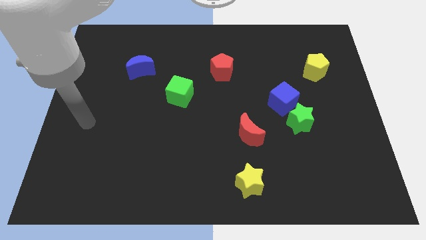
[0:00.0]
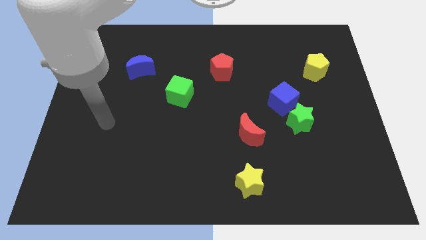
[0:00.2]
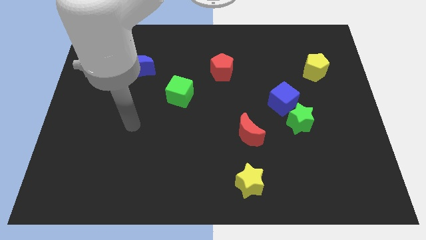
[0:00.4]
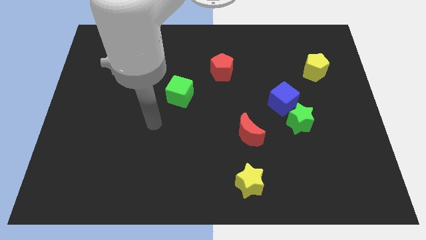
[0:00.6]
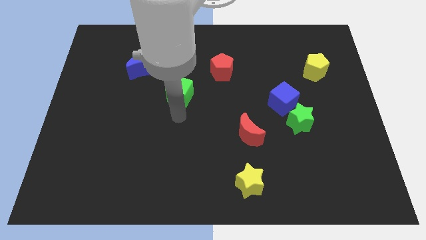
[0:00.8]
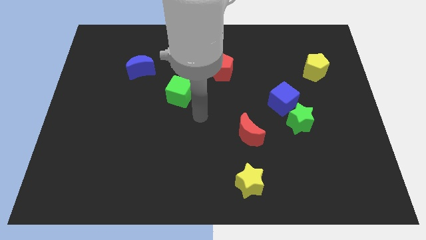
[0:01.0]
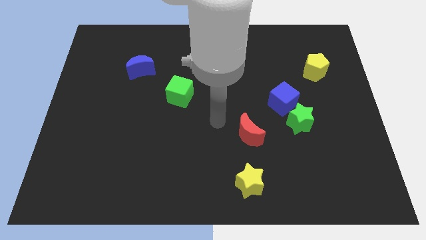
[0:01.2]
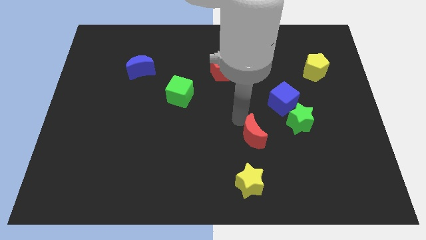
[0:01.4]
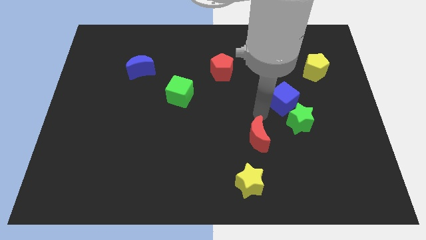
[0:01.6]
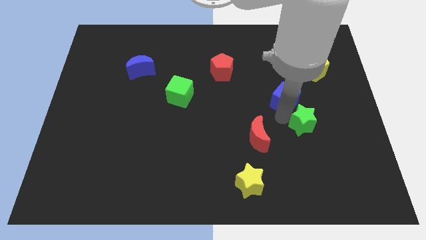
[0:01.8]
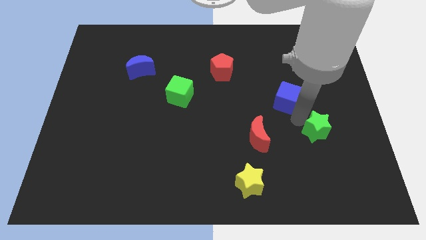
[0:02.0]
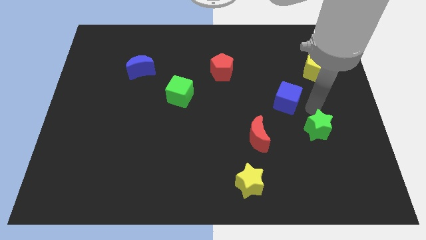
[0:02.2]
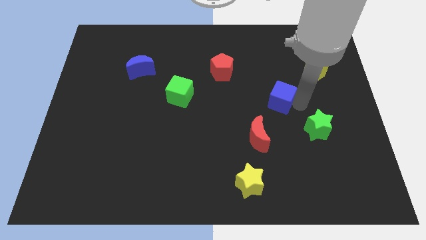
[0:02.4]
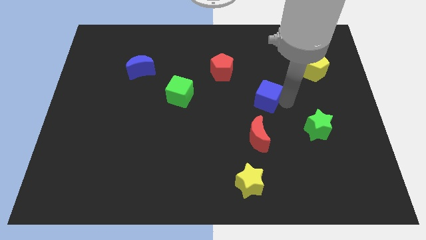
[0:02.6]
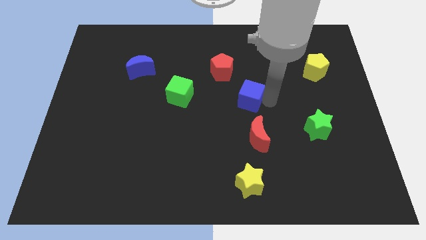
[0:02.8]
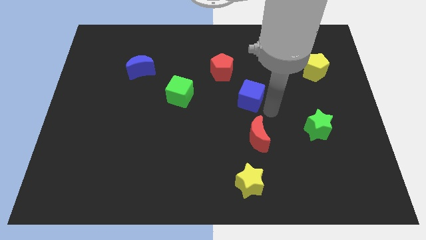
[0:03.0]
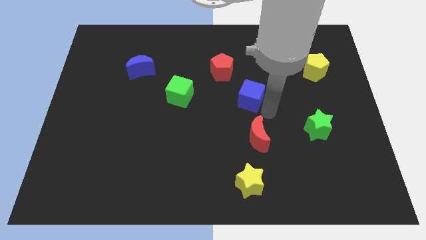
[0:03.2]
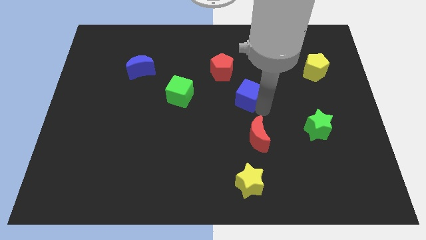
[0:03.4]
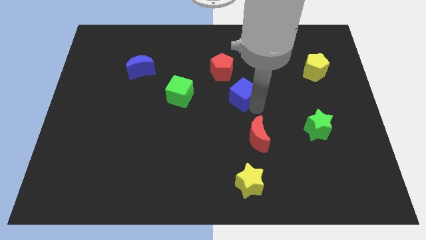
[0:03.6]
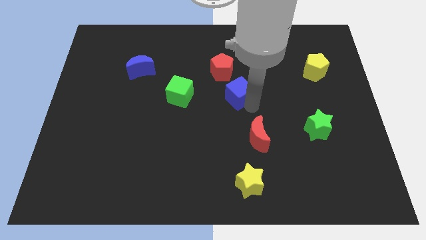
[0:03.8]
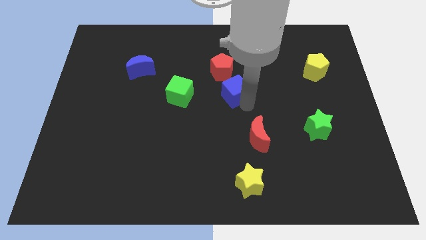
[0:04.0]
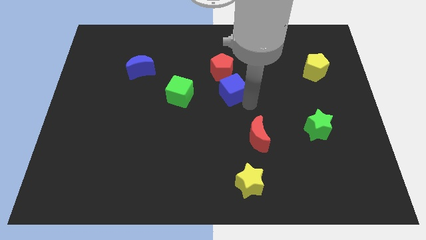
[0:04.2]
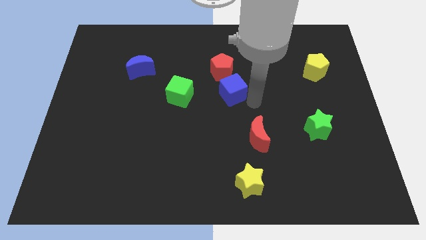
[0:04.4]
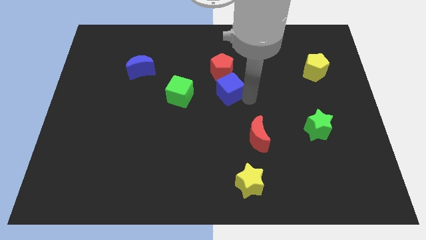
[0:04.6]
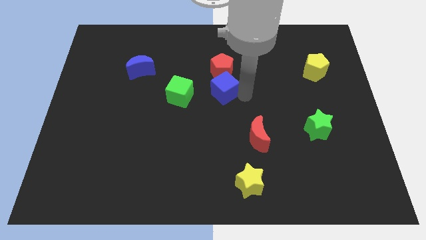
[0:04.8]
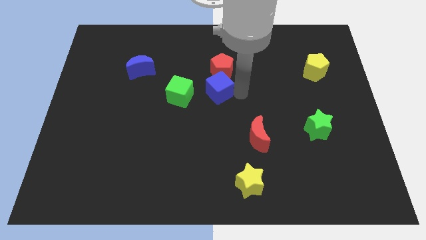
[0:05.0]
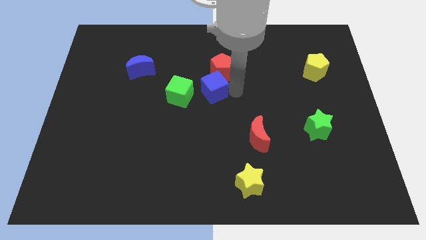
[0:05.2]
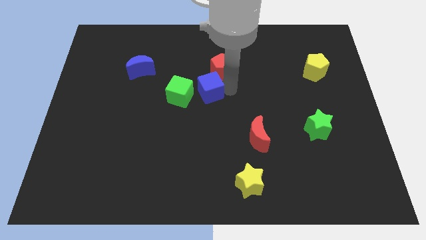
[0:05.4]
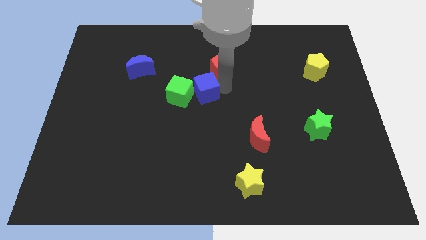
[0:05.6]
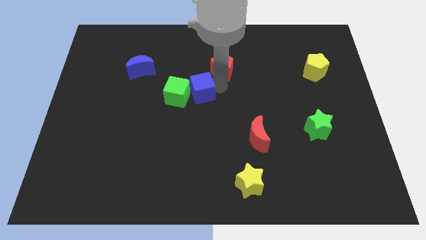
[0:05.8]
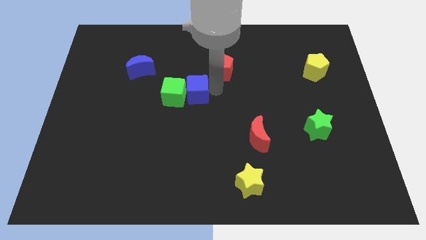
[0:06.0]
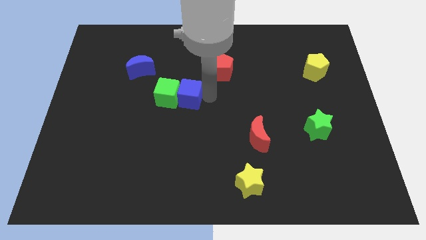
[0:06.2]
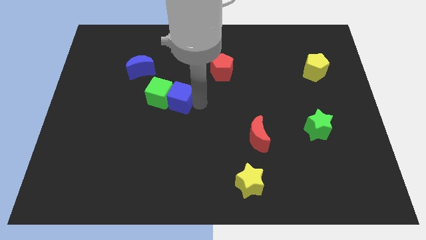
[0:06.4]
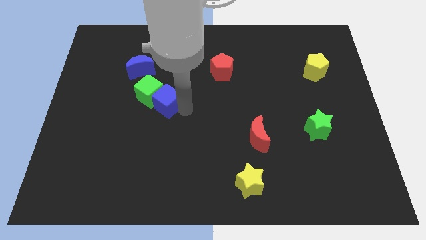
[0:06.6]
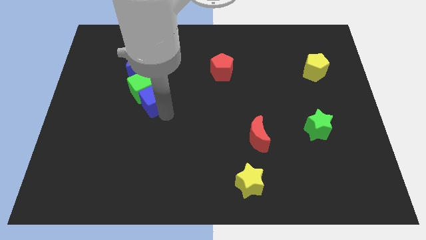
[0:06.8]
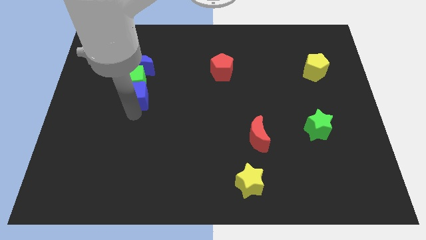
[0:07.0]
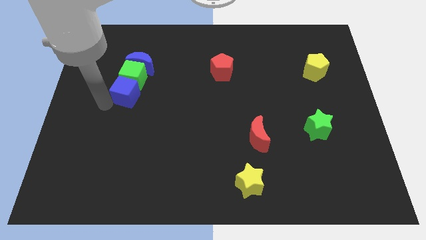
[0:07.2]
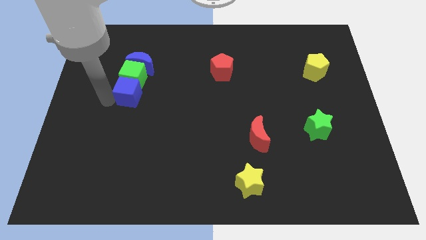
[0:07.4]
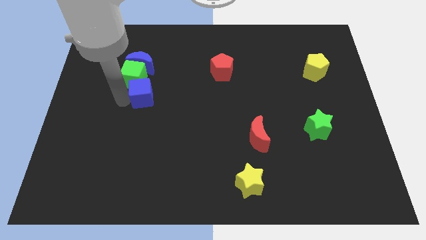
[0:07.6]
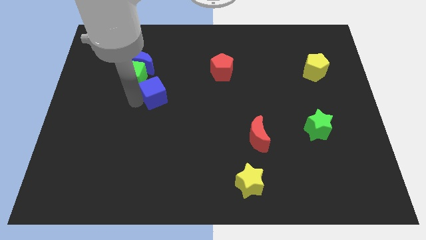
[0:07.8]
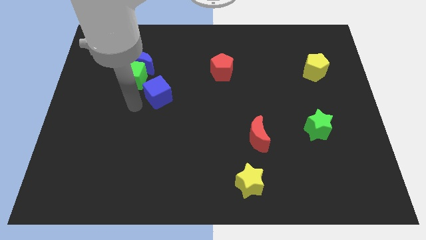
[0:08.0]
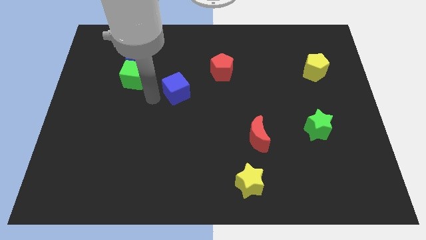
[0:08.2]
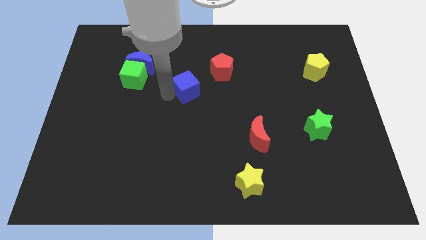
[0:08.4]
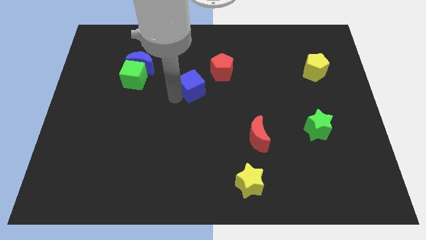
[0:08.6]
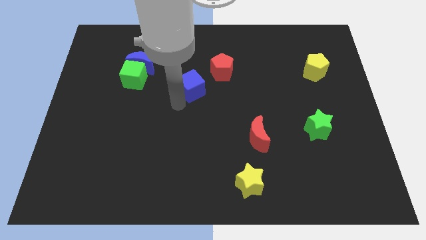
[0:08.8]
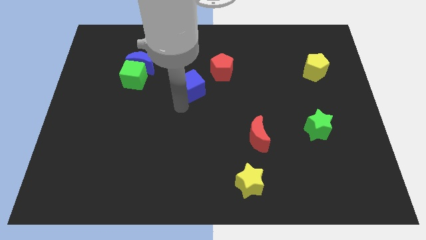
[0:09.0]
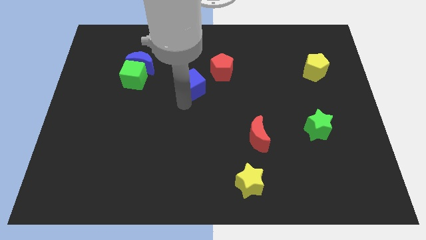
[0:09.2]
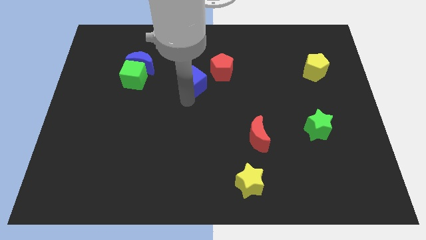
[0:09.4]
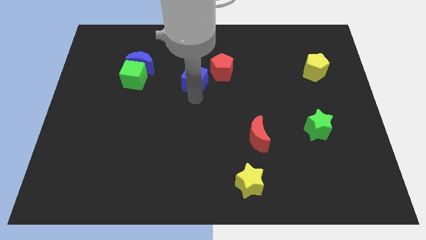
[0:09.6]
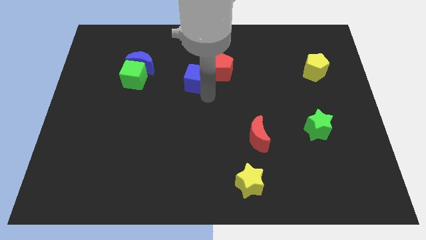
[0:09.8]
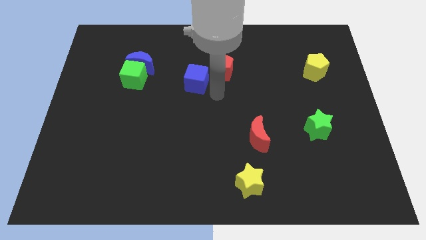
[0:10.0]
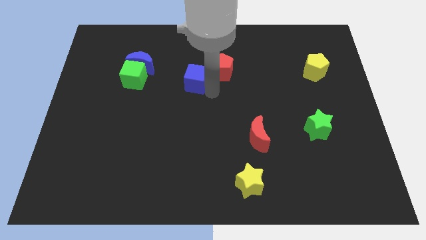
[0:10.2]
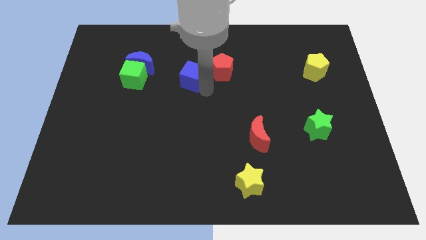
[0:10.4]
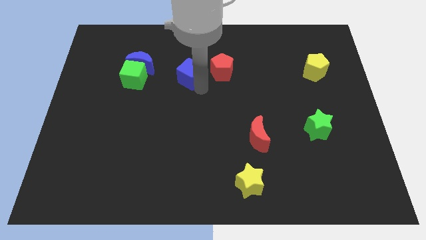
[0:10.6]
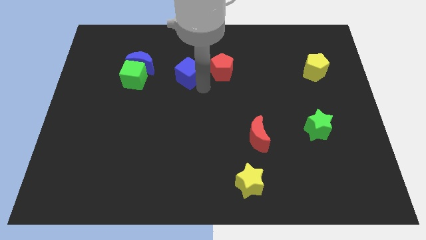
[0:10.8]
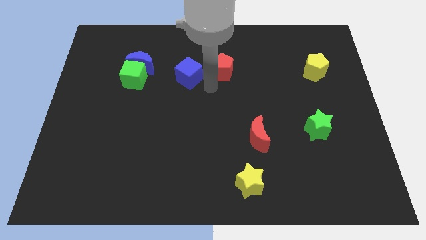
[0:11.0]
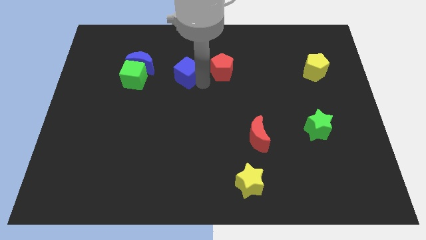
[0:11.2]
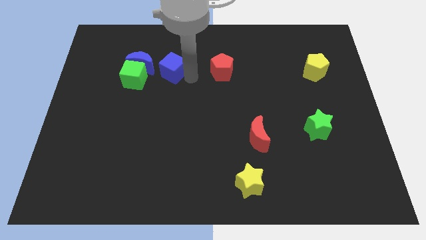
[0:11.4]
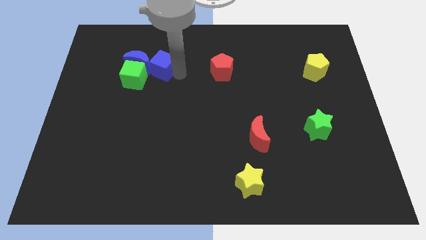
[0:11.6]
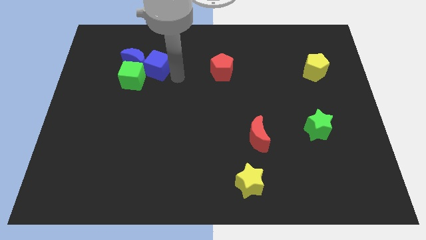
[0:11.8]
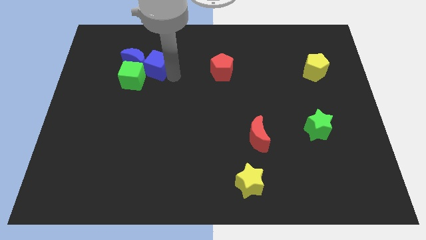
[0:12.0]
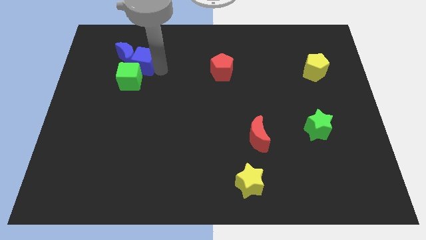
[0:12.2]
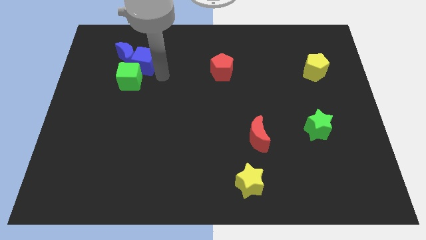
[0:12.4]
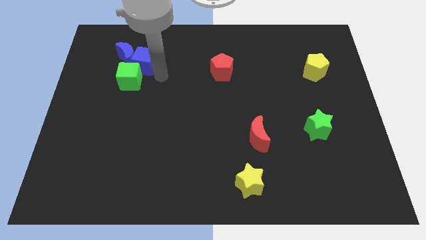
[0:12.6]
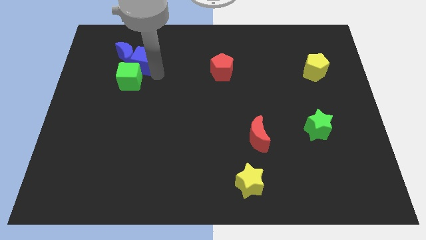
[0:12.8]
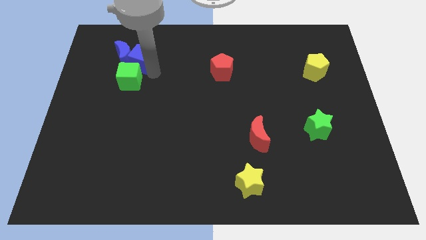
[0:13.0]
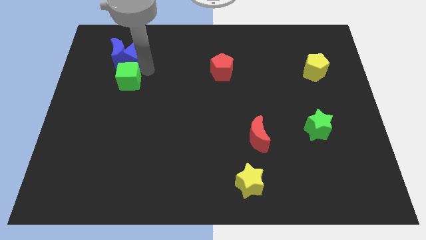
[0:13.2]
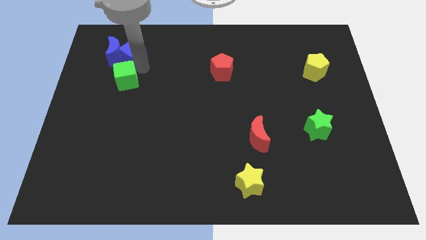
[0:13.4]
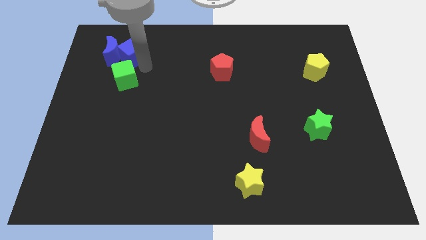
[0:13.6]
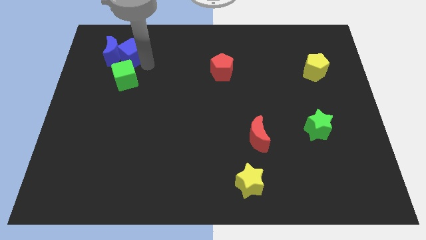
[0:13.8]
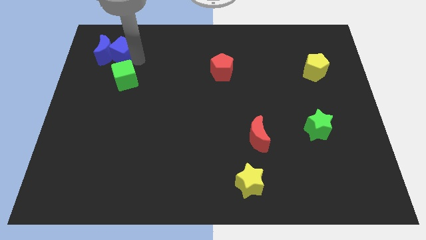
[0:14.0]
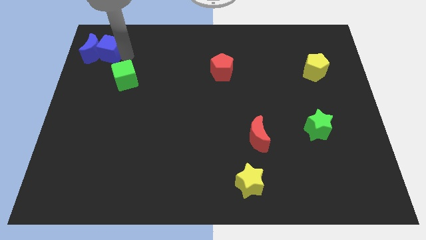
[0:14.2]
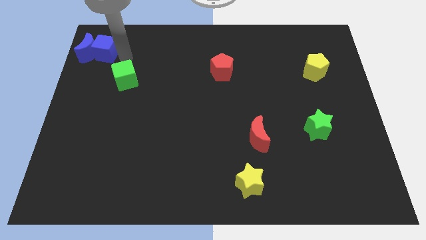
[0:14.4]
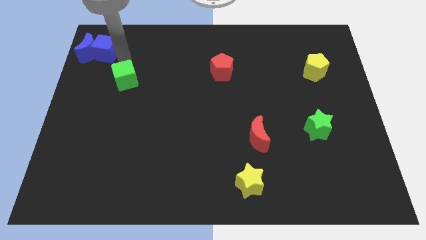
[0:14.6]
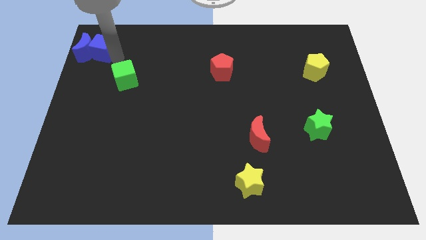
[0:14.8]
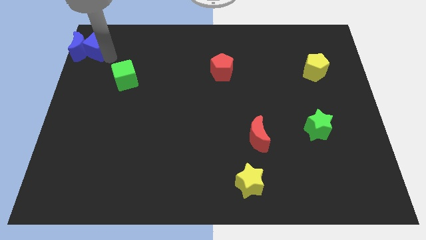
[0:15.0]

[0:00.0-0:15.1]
move the blue cube to the top left corner

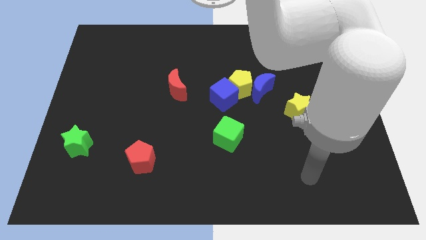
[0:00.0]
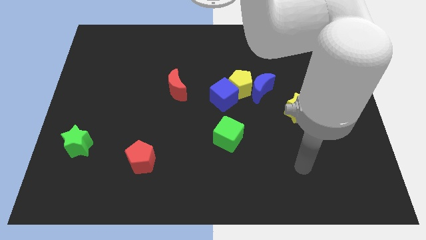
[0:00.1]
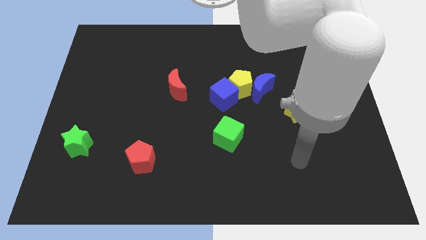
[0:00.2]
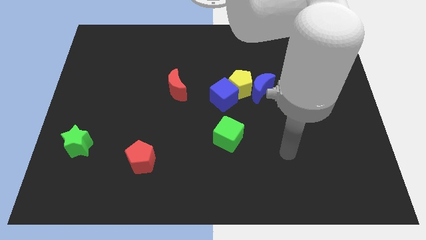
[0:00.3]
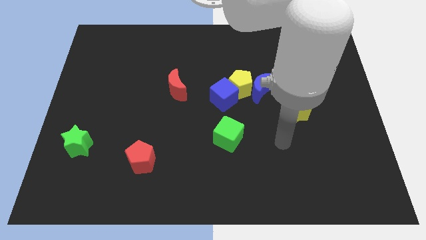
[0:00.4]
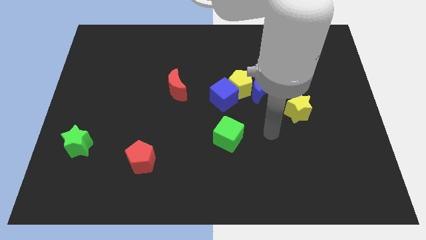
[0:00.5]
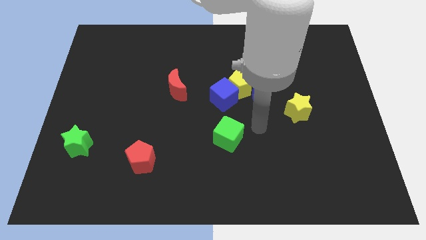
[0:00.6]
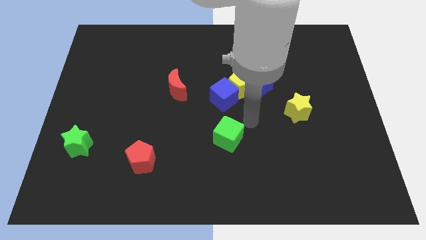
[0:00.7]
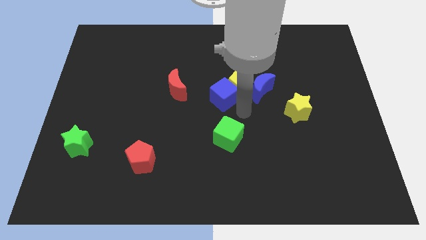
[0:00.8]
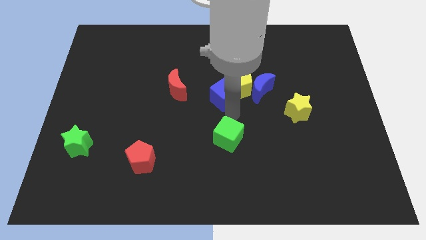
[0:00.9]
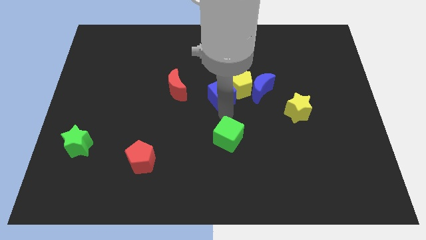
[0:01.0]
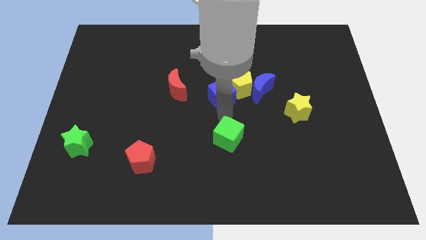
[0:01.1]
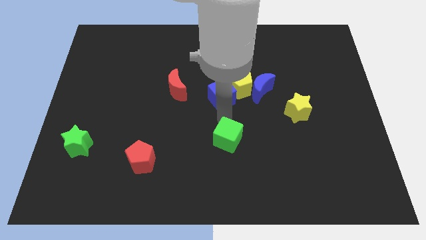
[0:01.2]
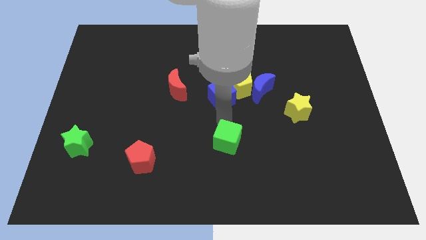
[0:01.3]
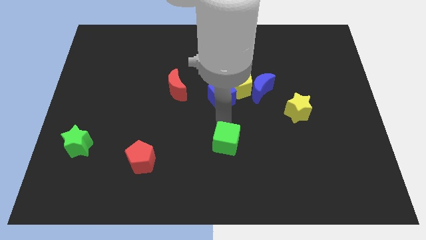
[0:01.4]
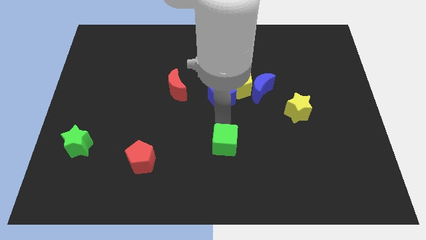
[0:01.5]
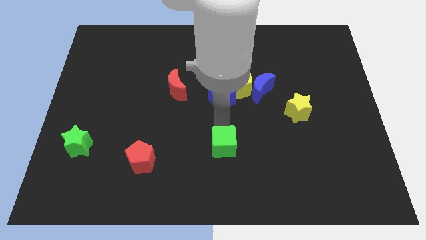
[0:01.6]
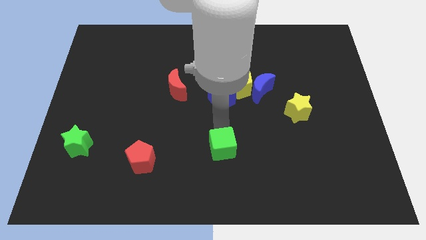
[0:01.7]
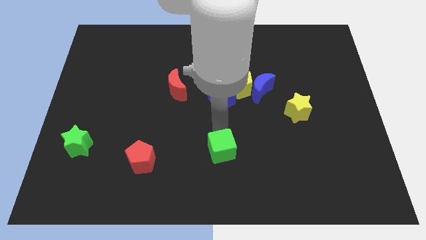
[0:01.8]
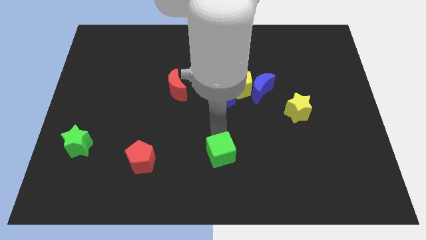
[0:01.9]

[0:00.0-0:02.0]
push the green cube to the bottom side
